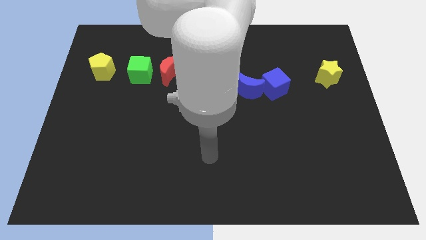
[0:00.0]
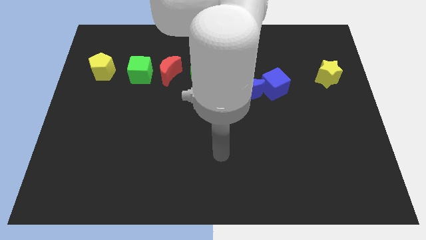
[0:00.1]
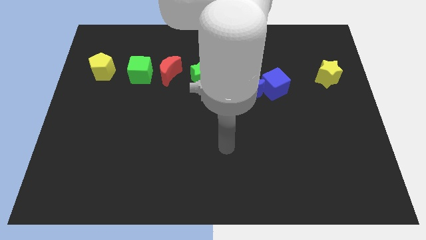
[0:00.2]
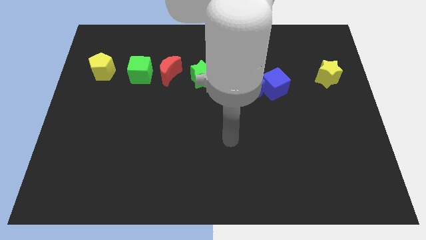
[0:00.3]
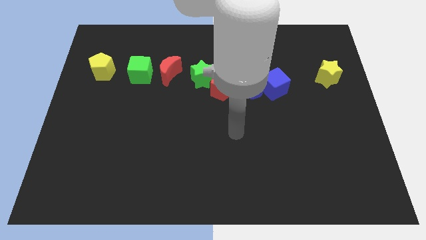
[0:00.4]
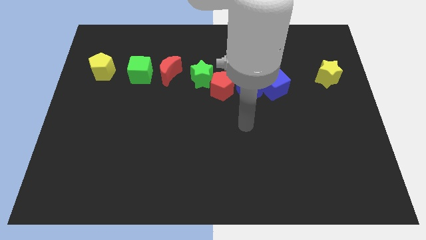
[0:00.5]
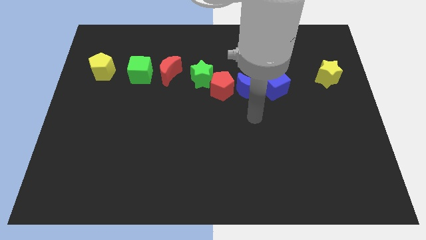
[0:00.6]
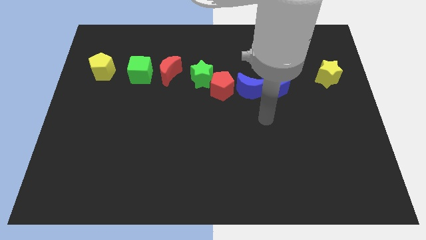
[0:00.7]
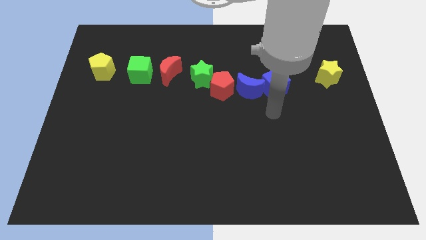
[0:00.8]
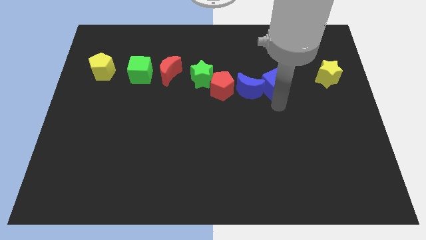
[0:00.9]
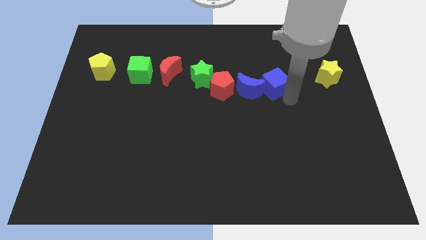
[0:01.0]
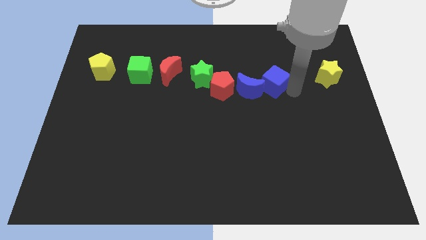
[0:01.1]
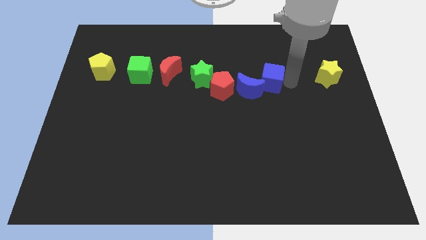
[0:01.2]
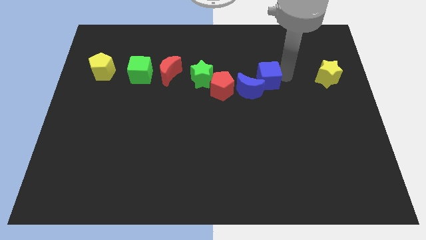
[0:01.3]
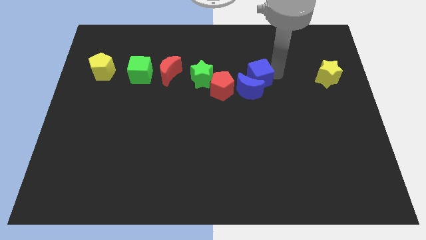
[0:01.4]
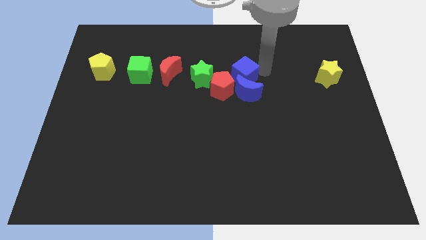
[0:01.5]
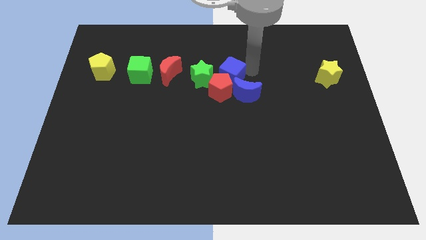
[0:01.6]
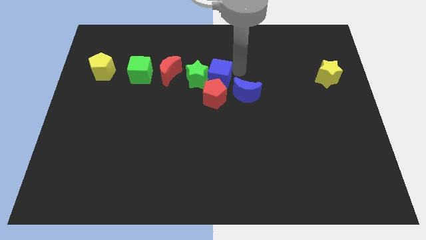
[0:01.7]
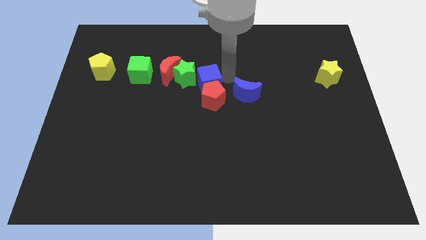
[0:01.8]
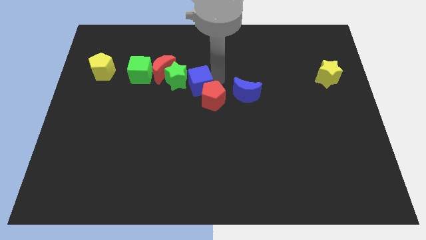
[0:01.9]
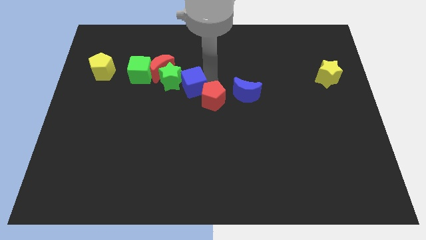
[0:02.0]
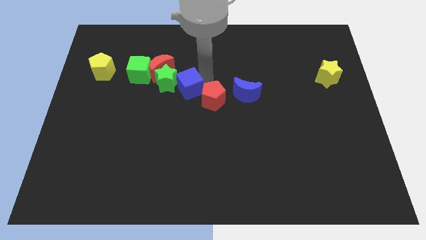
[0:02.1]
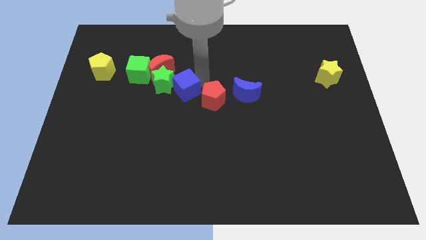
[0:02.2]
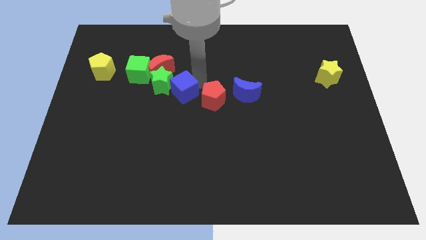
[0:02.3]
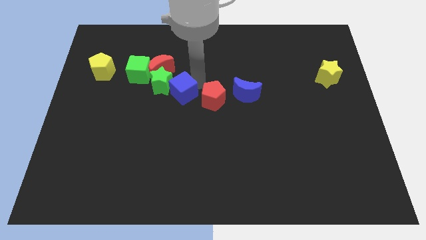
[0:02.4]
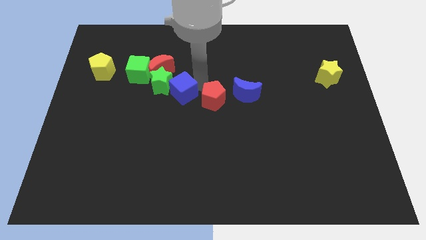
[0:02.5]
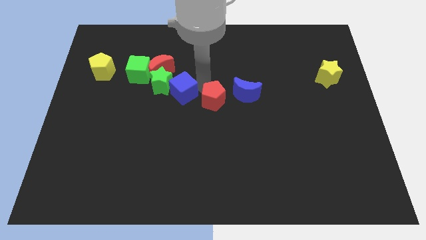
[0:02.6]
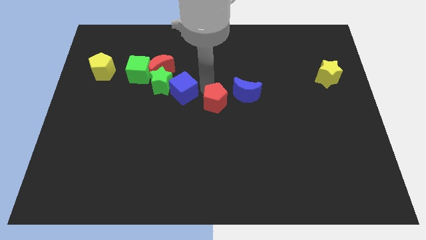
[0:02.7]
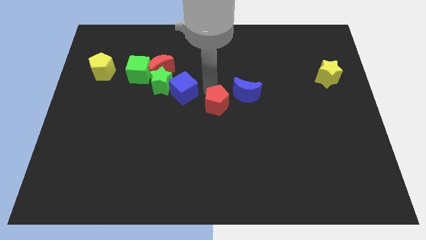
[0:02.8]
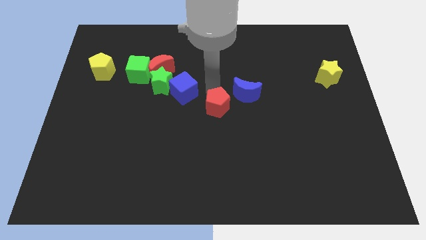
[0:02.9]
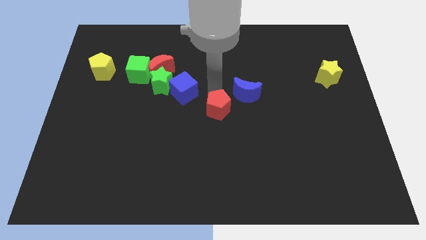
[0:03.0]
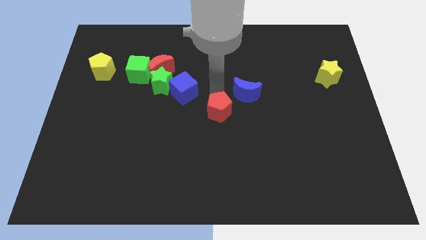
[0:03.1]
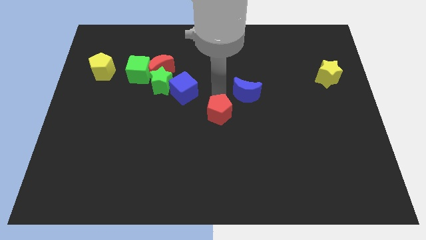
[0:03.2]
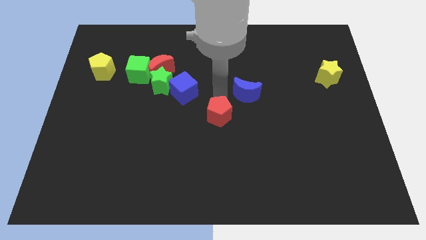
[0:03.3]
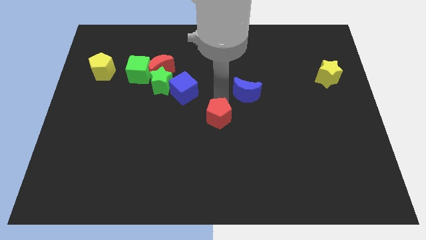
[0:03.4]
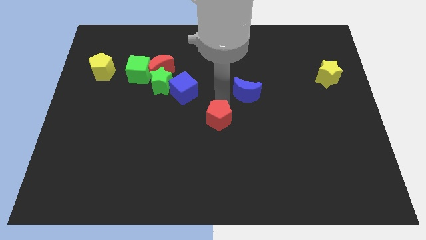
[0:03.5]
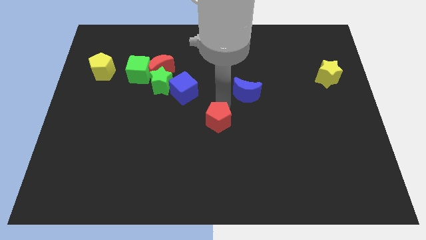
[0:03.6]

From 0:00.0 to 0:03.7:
separate the red pentagon from the green star and blue moon

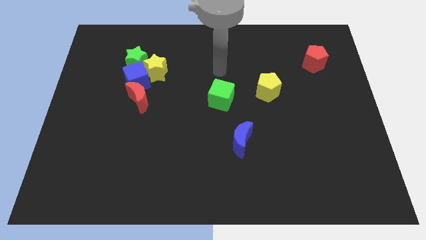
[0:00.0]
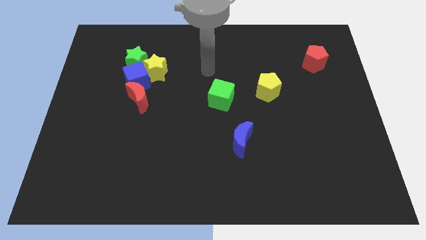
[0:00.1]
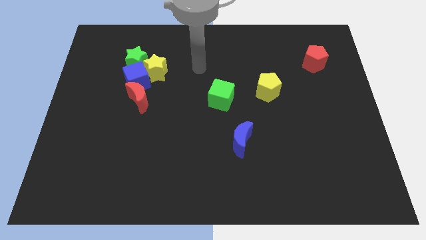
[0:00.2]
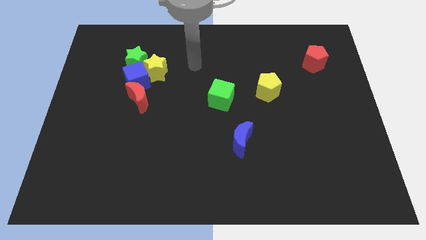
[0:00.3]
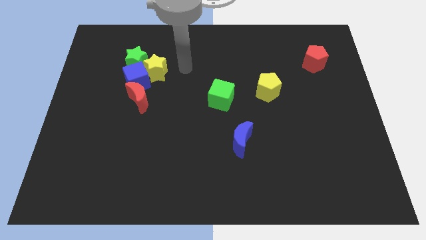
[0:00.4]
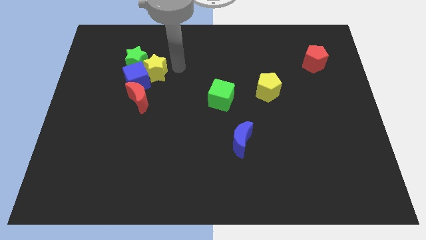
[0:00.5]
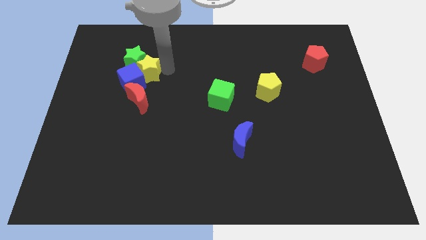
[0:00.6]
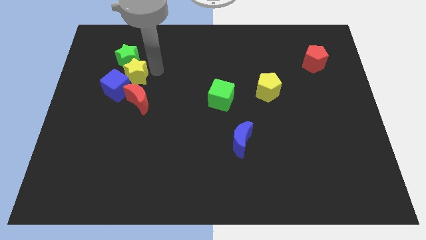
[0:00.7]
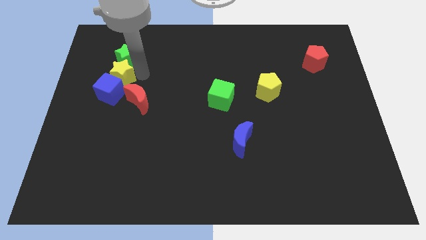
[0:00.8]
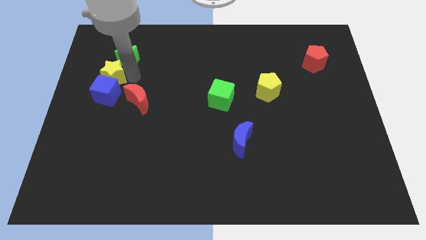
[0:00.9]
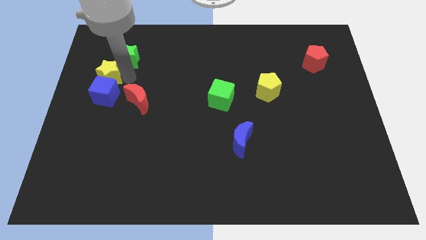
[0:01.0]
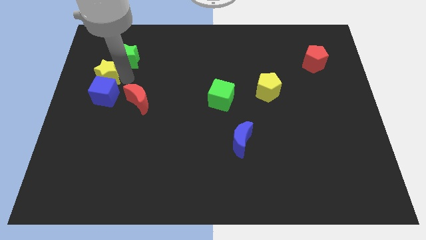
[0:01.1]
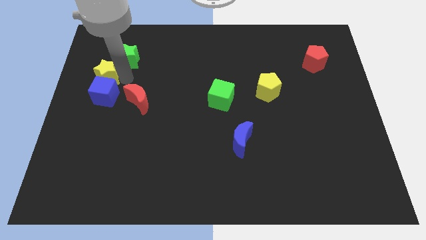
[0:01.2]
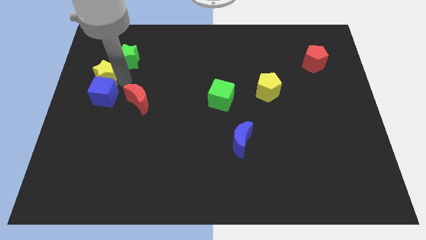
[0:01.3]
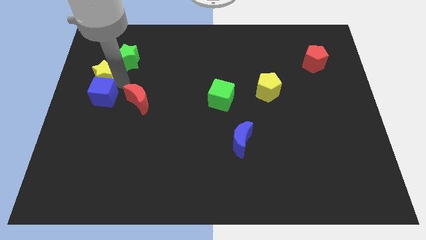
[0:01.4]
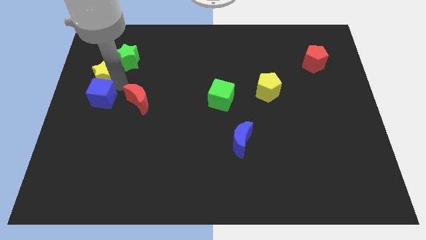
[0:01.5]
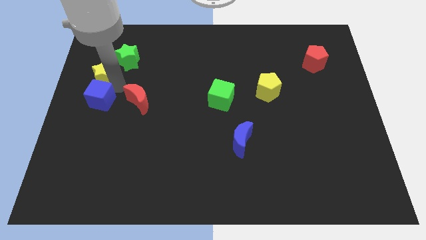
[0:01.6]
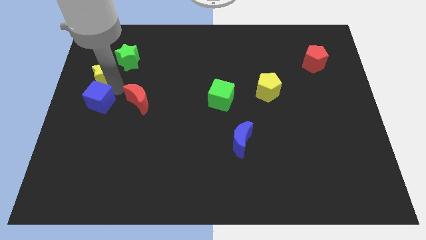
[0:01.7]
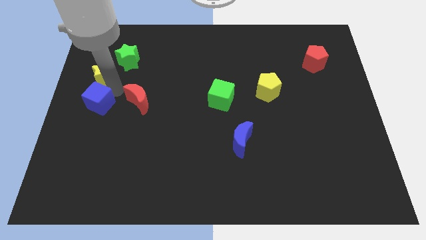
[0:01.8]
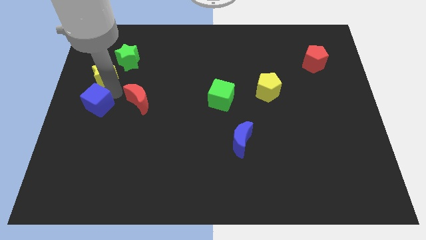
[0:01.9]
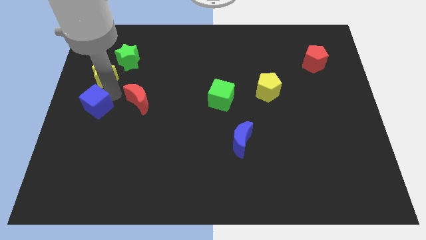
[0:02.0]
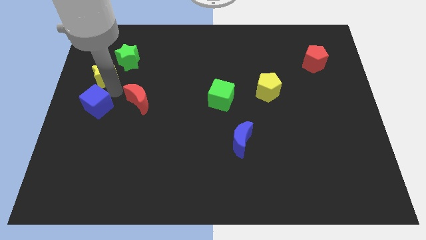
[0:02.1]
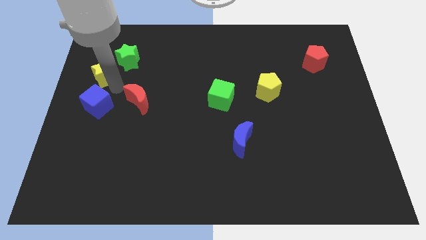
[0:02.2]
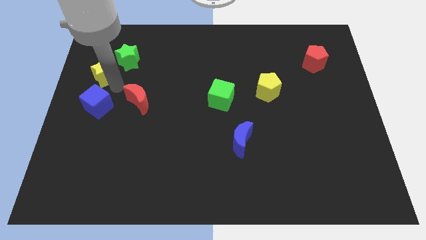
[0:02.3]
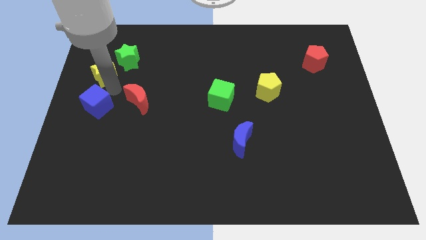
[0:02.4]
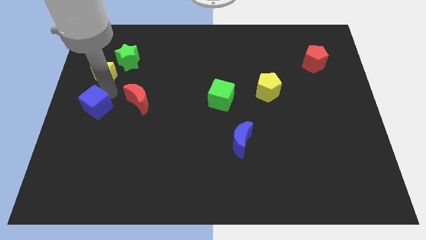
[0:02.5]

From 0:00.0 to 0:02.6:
move the blue cube away from the group of blocks

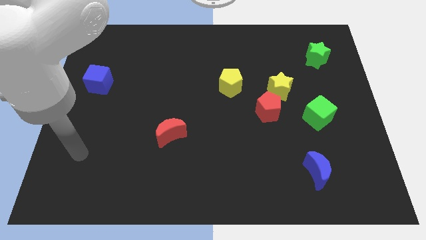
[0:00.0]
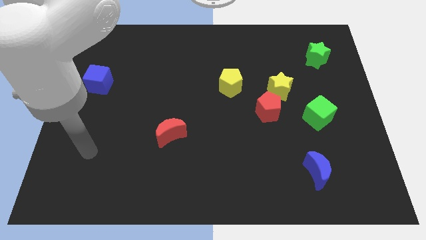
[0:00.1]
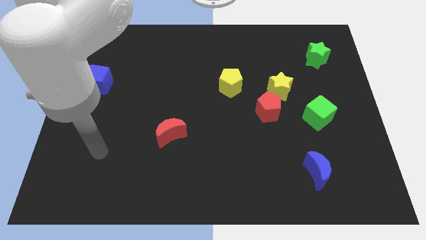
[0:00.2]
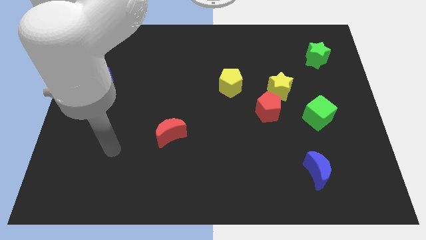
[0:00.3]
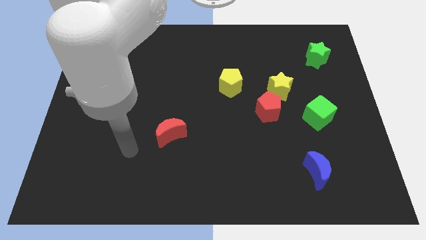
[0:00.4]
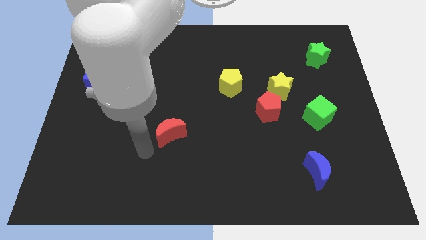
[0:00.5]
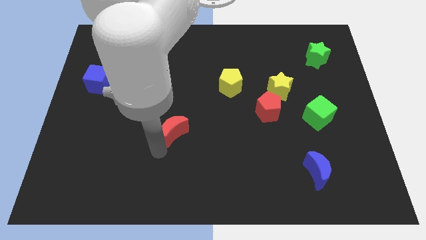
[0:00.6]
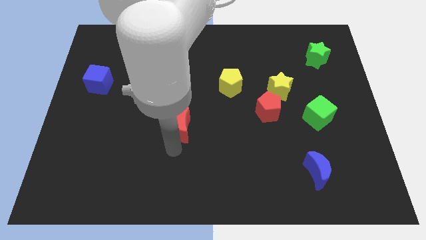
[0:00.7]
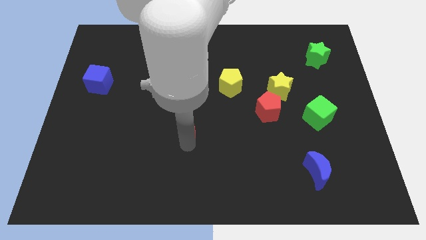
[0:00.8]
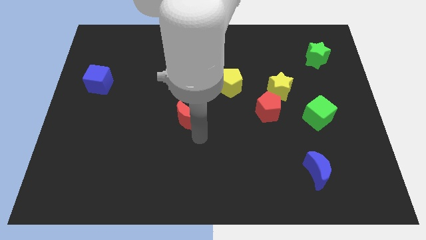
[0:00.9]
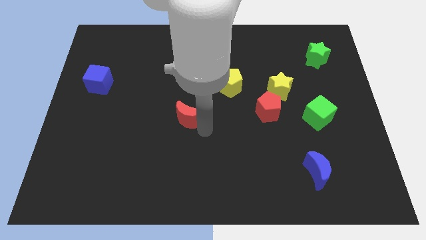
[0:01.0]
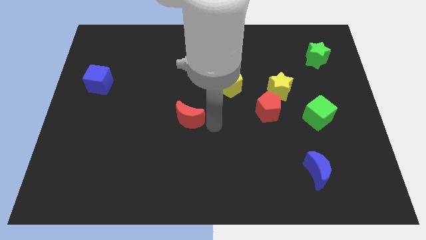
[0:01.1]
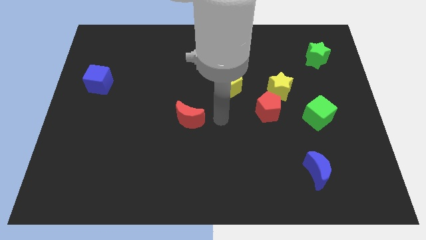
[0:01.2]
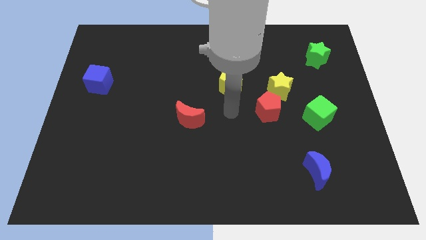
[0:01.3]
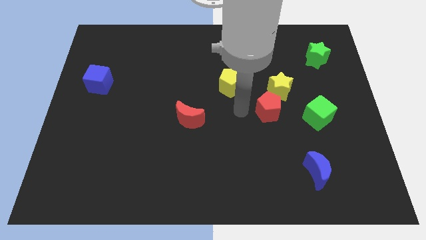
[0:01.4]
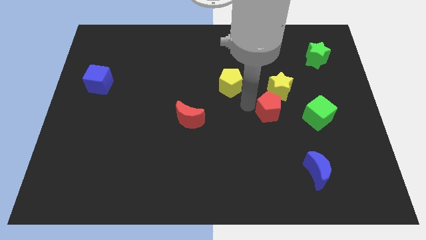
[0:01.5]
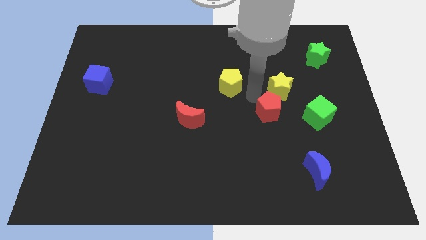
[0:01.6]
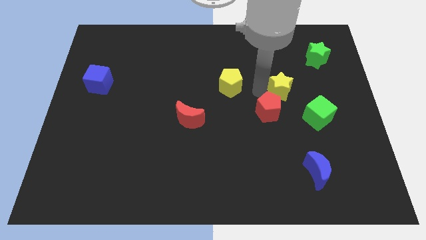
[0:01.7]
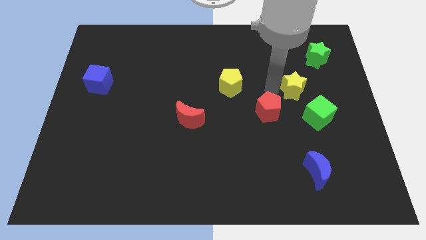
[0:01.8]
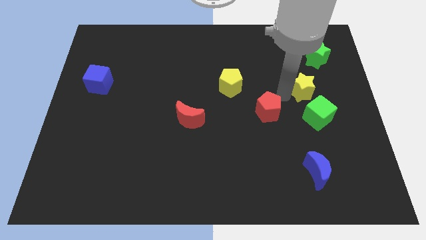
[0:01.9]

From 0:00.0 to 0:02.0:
separate the red pentagon from the yellow star

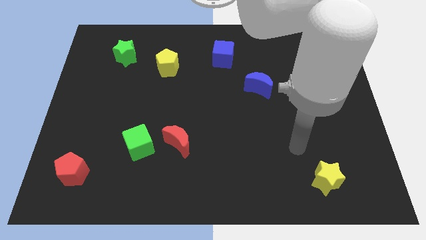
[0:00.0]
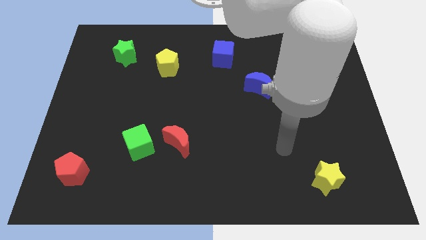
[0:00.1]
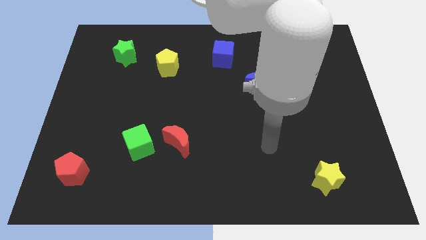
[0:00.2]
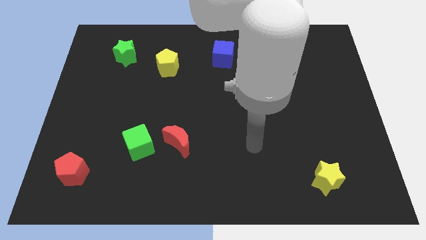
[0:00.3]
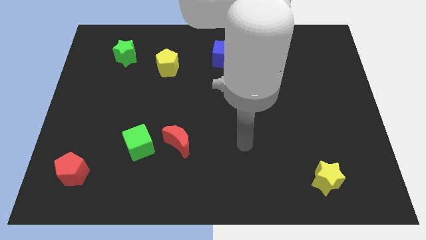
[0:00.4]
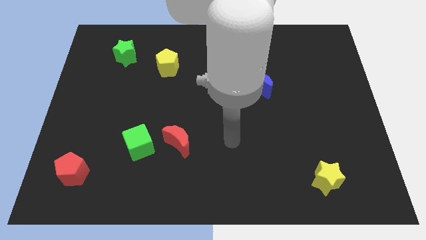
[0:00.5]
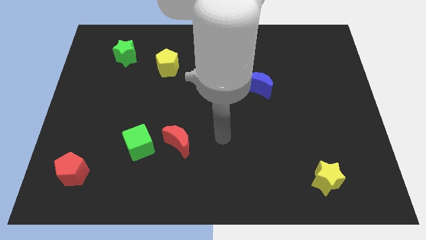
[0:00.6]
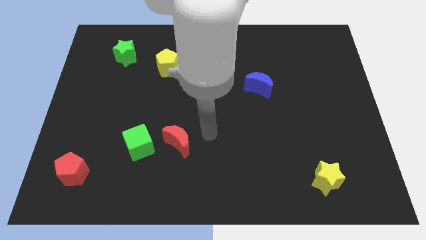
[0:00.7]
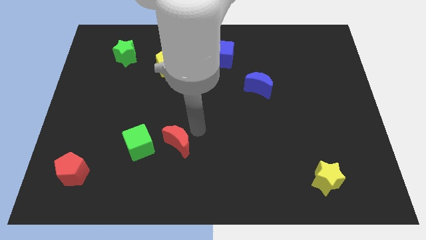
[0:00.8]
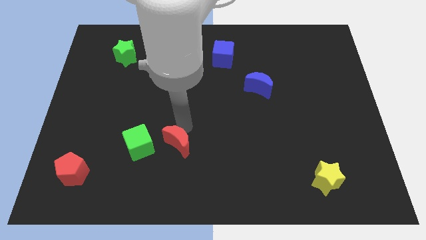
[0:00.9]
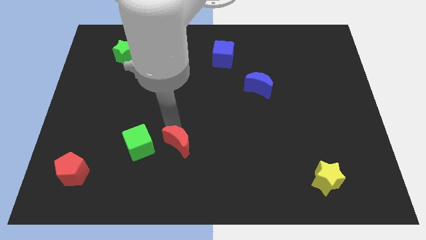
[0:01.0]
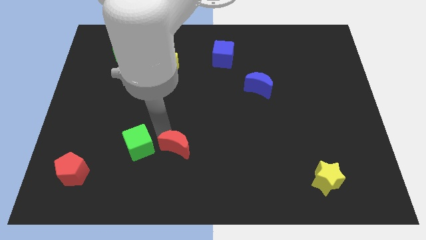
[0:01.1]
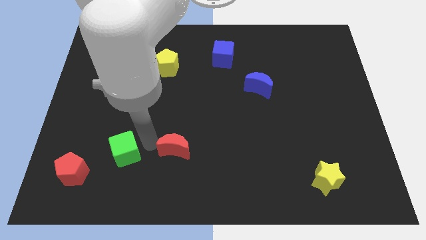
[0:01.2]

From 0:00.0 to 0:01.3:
separate the red moon from the green cube
